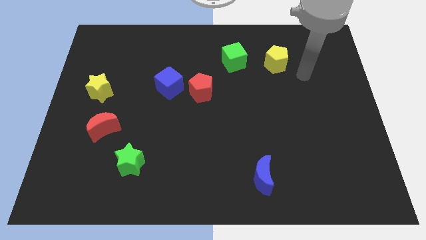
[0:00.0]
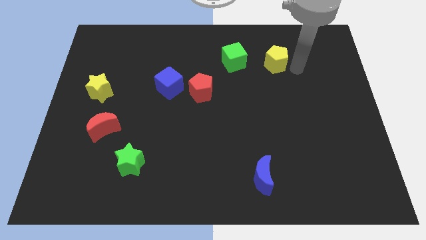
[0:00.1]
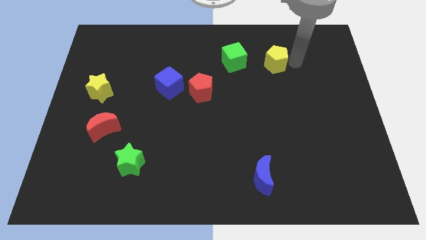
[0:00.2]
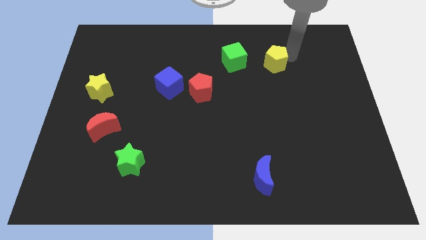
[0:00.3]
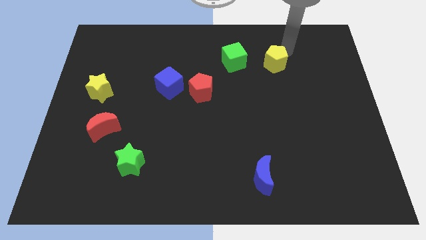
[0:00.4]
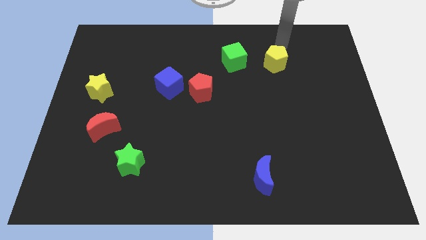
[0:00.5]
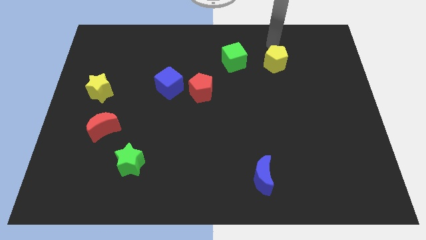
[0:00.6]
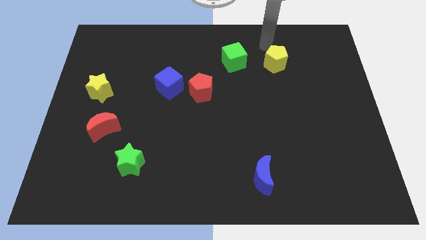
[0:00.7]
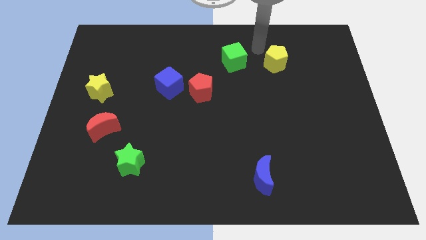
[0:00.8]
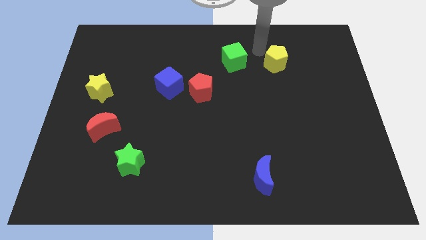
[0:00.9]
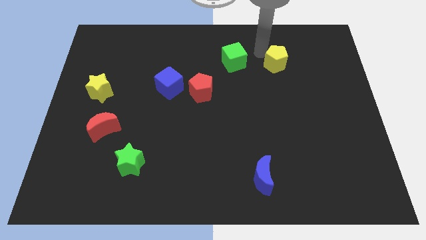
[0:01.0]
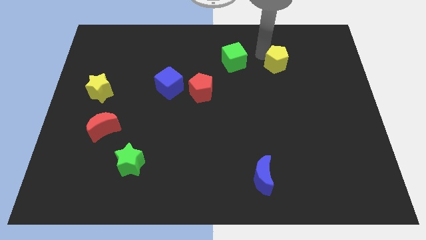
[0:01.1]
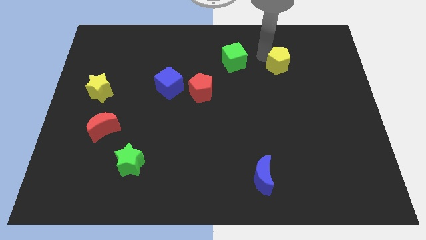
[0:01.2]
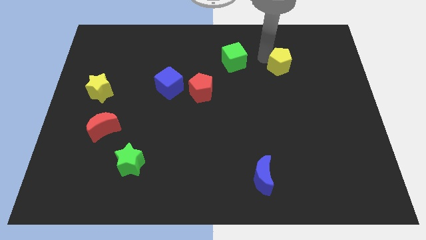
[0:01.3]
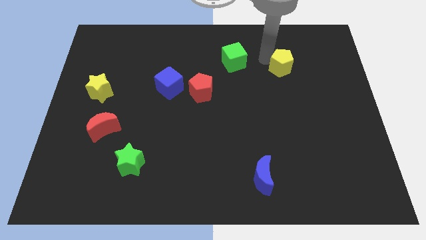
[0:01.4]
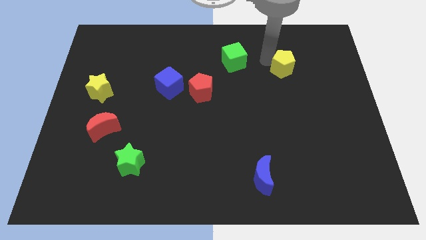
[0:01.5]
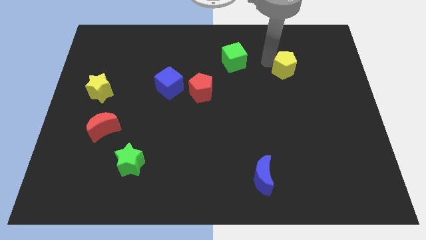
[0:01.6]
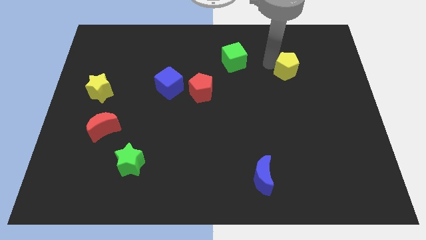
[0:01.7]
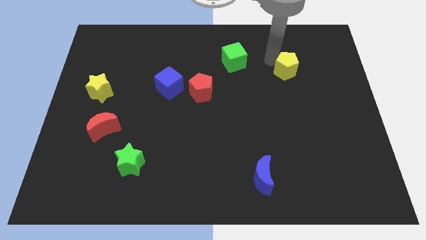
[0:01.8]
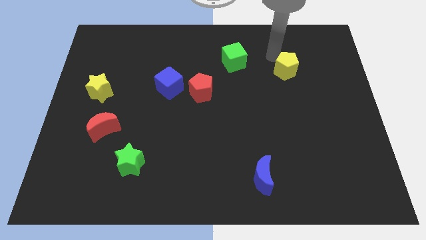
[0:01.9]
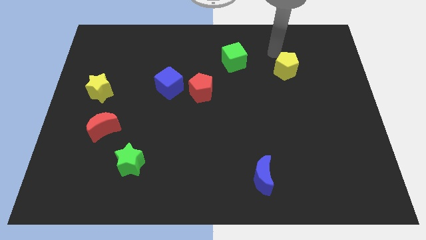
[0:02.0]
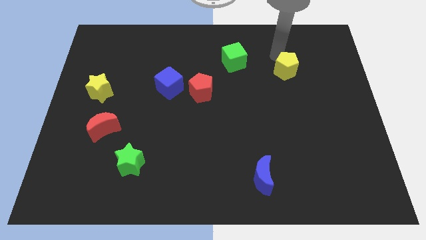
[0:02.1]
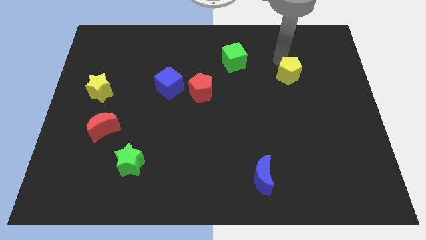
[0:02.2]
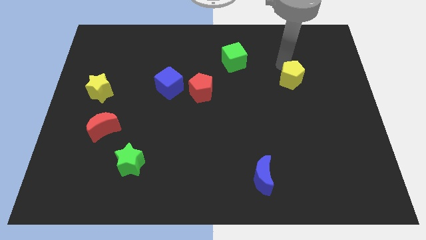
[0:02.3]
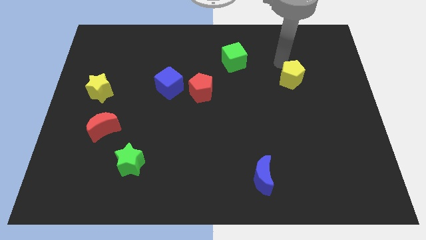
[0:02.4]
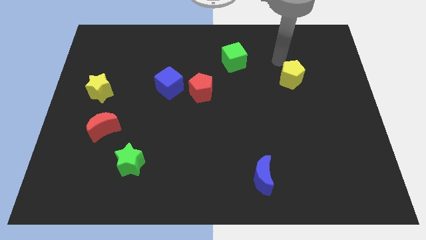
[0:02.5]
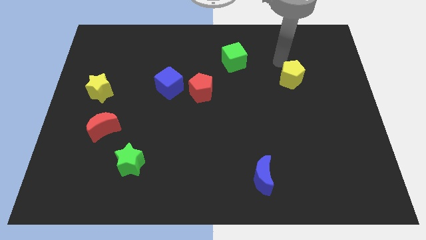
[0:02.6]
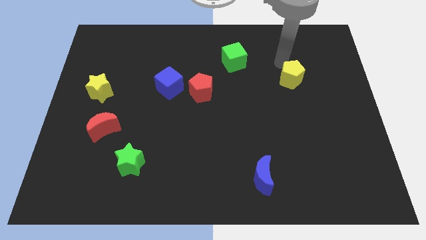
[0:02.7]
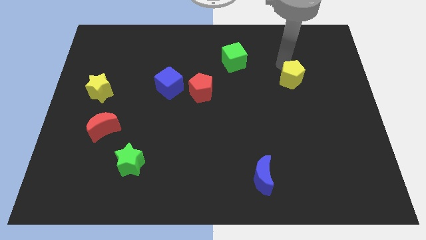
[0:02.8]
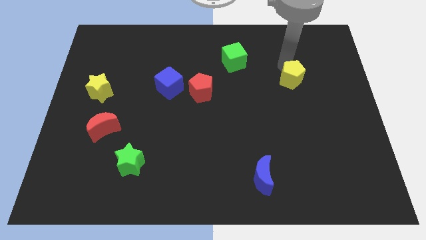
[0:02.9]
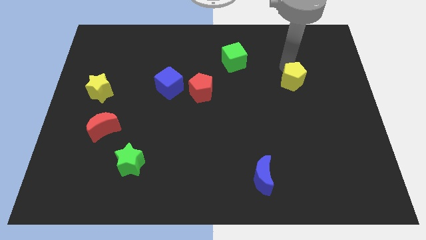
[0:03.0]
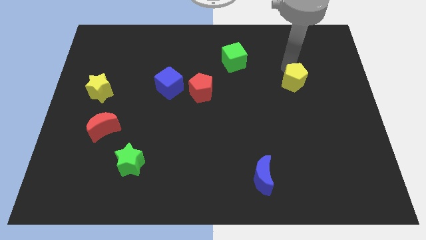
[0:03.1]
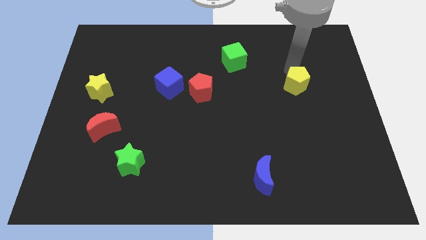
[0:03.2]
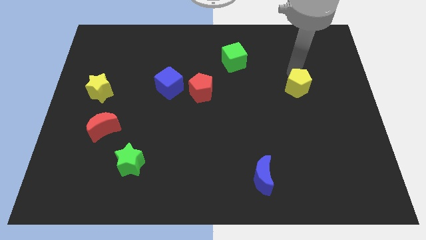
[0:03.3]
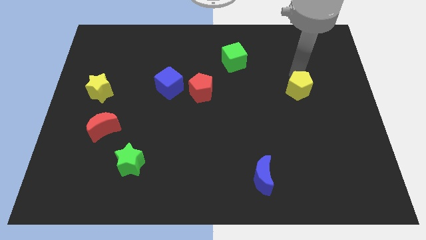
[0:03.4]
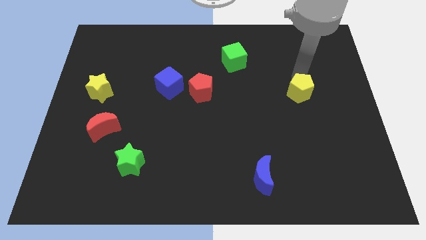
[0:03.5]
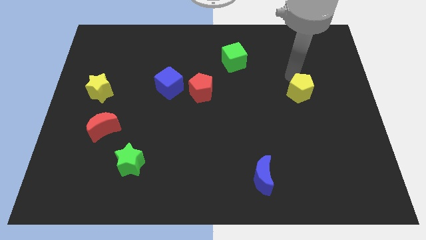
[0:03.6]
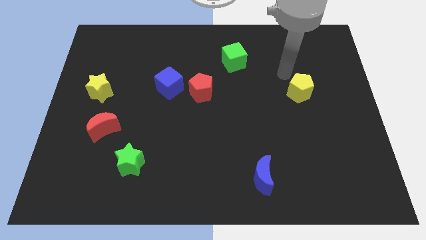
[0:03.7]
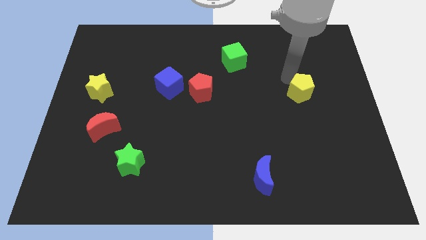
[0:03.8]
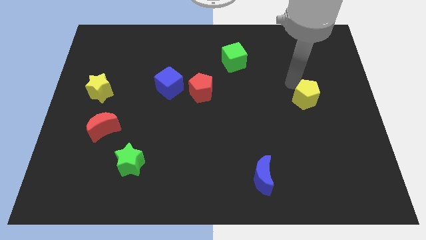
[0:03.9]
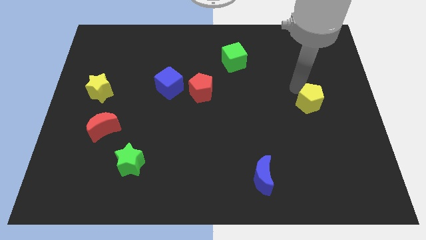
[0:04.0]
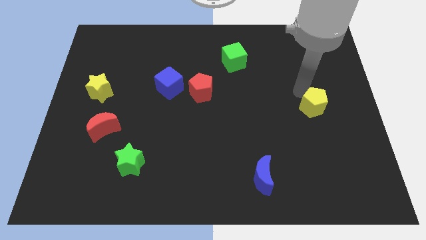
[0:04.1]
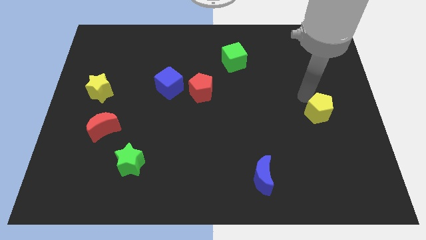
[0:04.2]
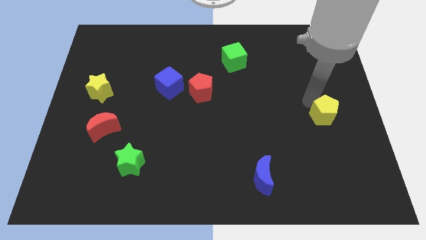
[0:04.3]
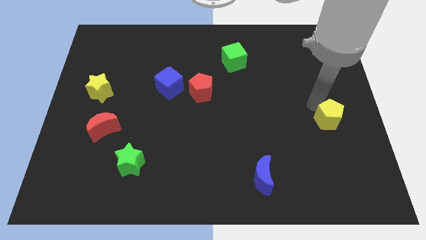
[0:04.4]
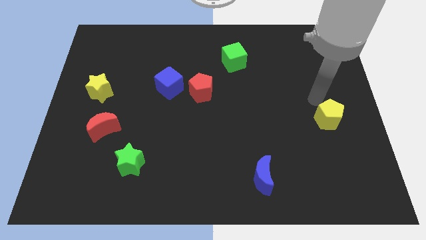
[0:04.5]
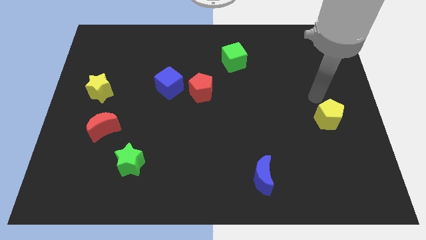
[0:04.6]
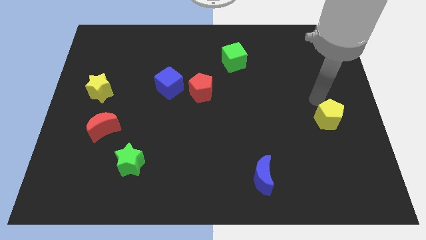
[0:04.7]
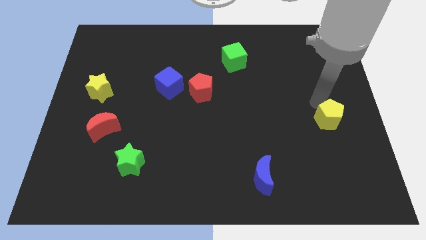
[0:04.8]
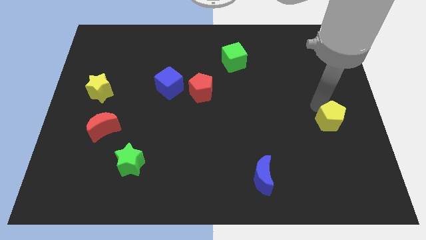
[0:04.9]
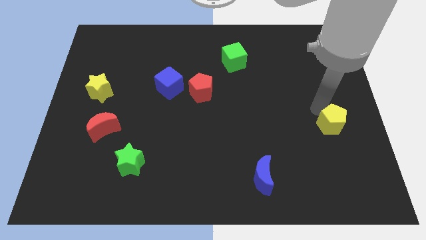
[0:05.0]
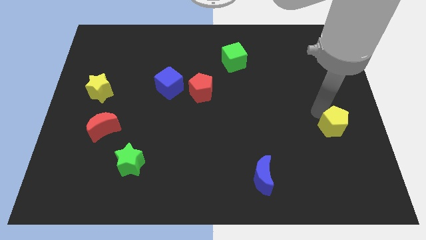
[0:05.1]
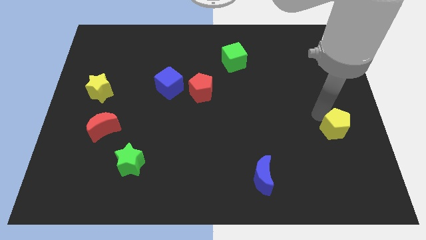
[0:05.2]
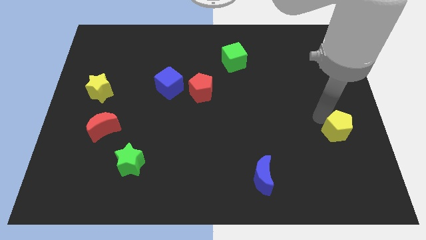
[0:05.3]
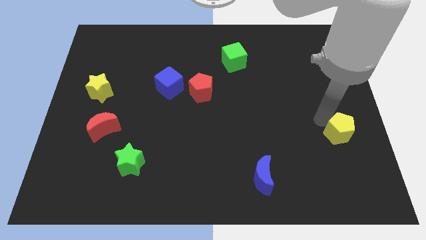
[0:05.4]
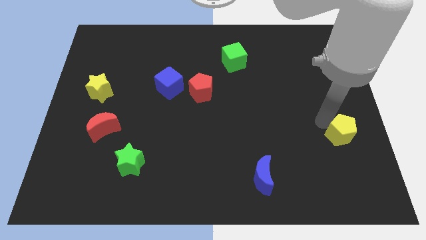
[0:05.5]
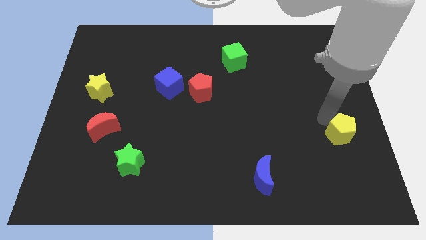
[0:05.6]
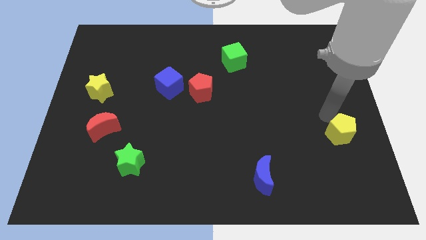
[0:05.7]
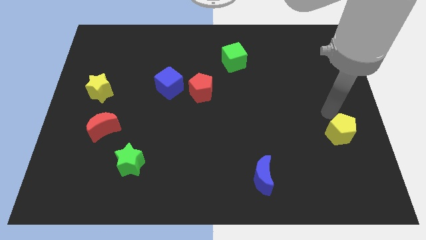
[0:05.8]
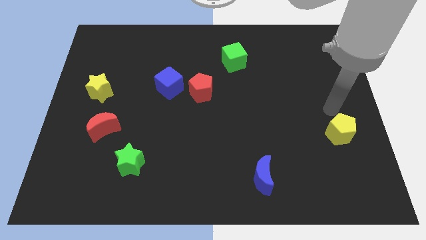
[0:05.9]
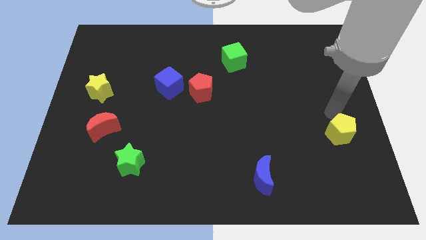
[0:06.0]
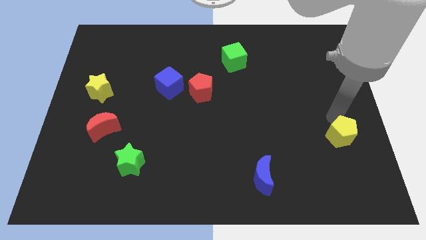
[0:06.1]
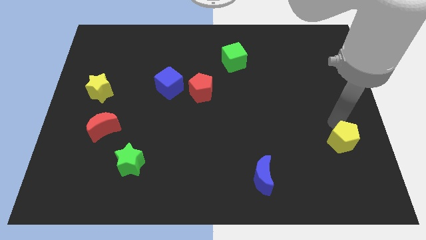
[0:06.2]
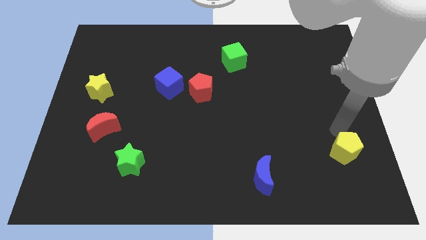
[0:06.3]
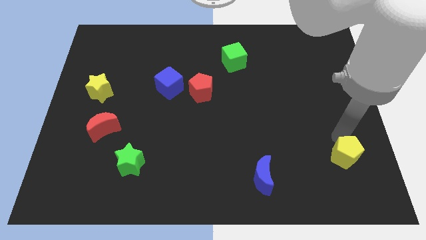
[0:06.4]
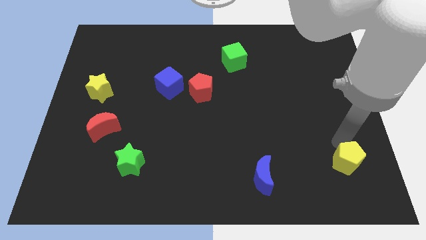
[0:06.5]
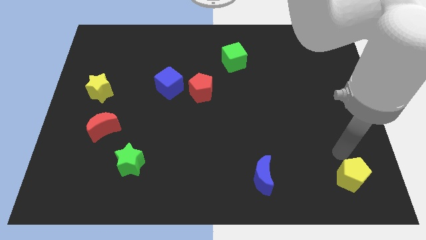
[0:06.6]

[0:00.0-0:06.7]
put the yellow pentagon to the bottom right
